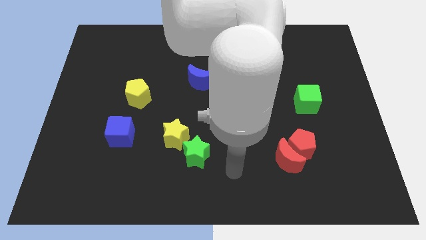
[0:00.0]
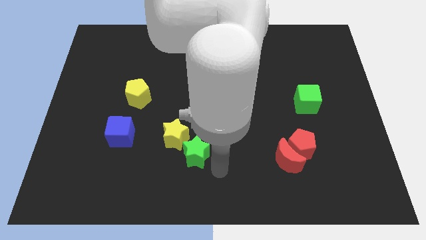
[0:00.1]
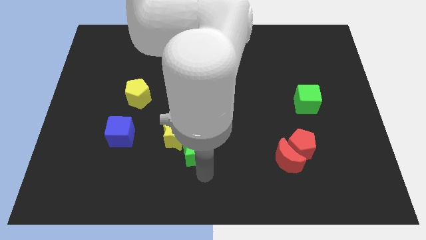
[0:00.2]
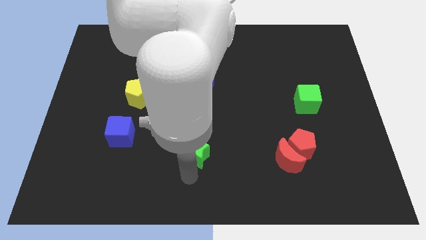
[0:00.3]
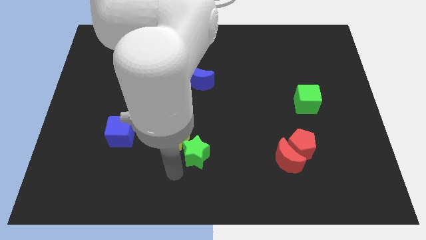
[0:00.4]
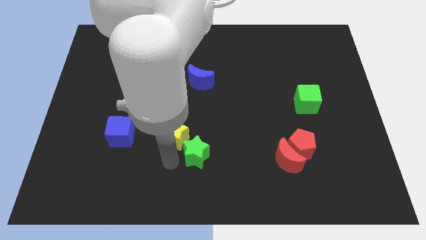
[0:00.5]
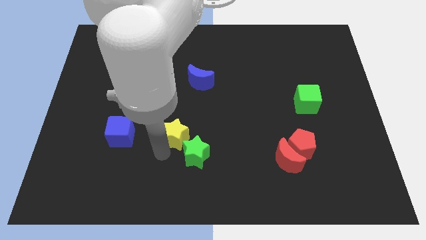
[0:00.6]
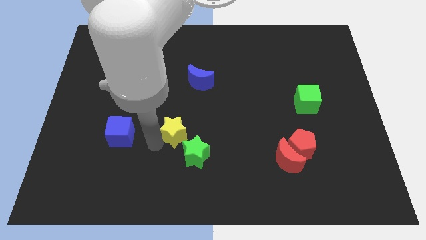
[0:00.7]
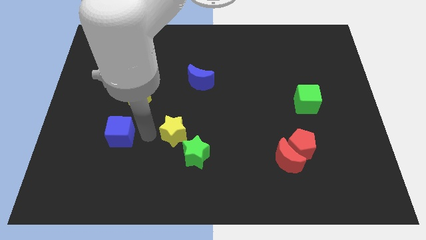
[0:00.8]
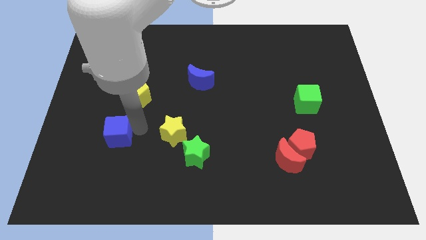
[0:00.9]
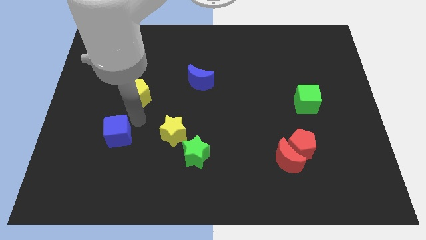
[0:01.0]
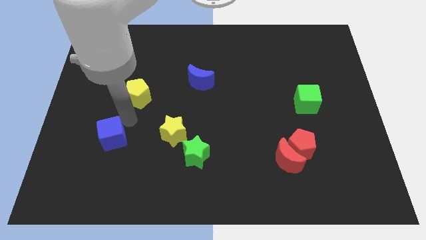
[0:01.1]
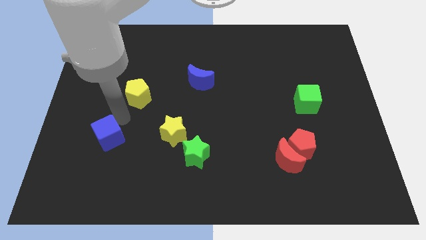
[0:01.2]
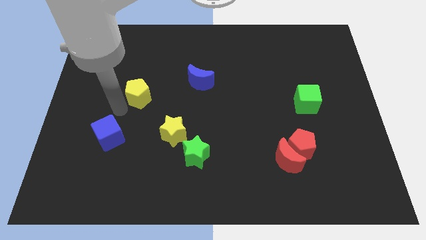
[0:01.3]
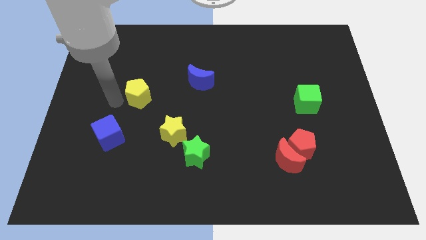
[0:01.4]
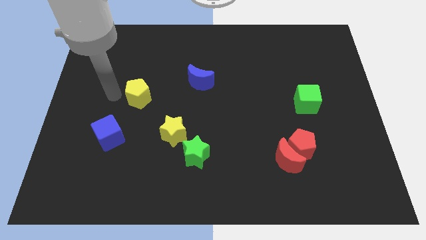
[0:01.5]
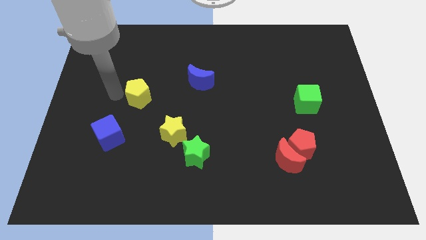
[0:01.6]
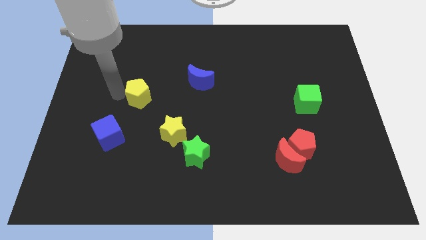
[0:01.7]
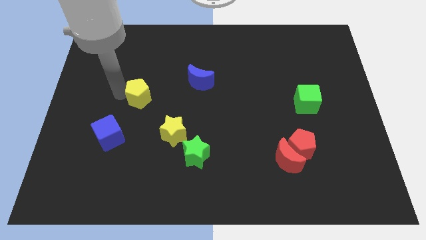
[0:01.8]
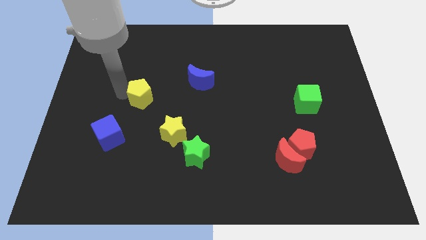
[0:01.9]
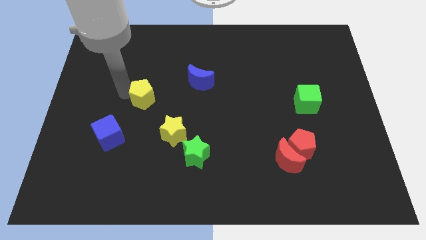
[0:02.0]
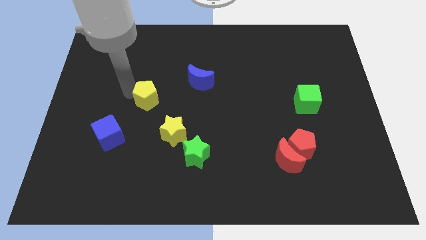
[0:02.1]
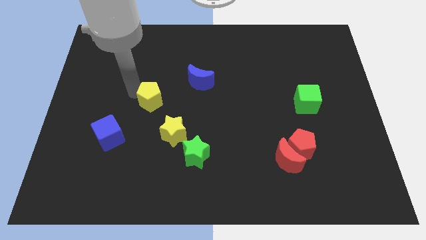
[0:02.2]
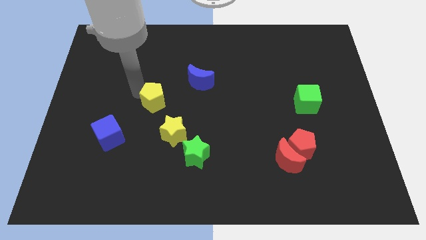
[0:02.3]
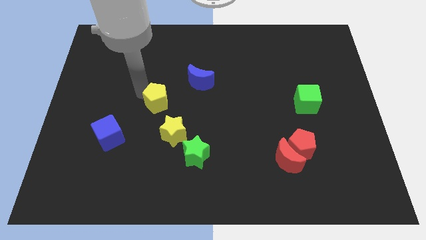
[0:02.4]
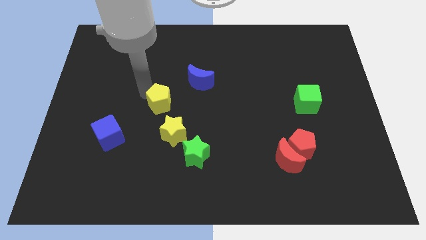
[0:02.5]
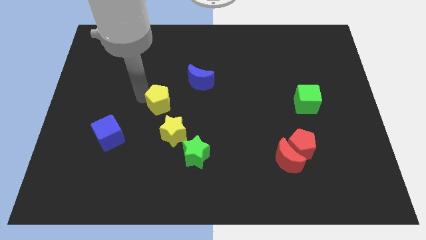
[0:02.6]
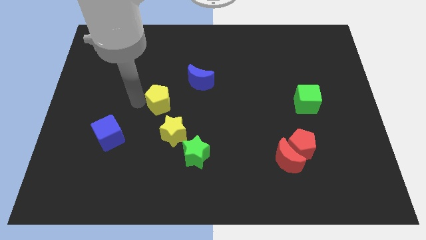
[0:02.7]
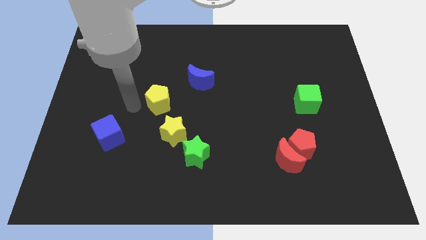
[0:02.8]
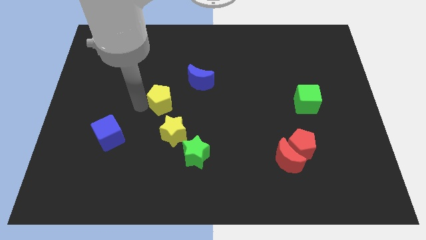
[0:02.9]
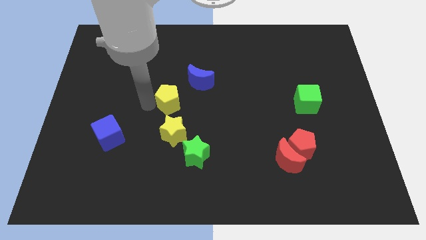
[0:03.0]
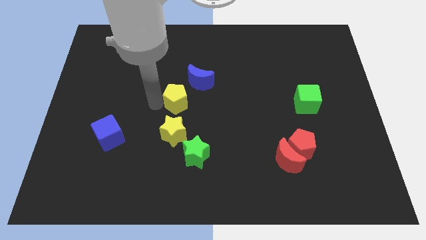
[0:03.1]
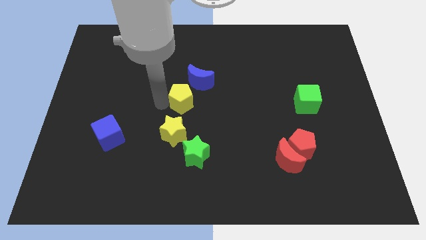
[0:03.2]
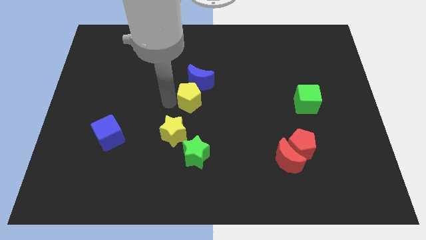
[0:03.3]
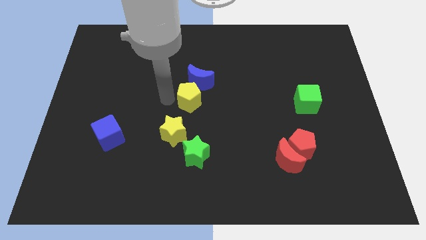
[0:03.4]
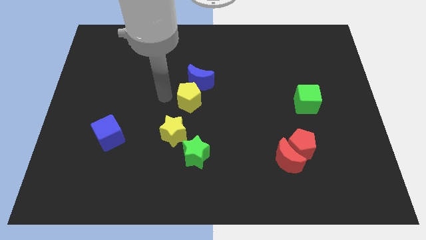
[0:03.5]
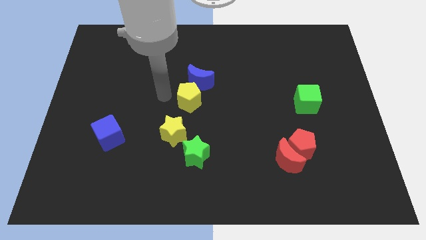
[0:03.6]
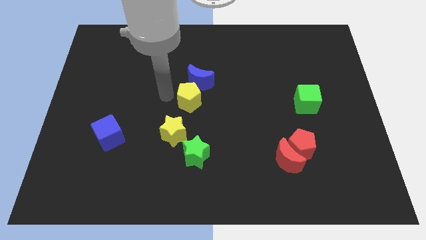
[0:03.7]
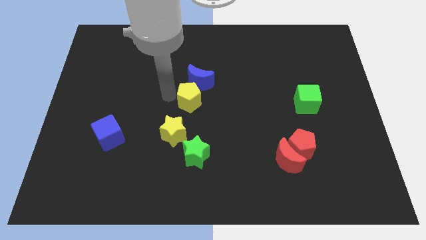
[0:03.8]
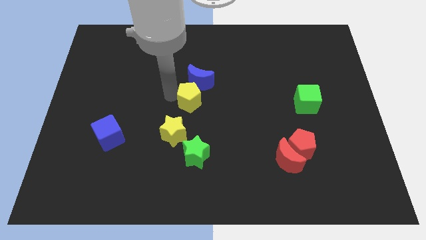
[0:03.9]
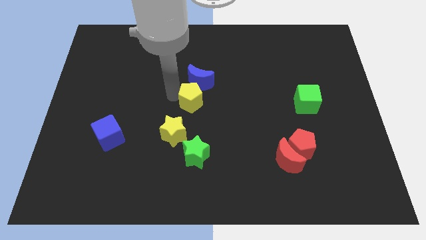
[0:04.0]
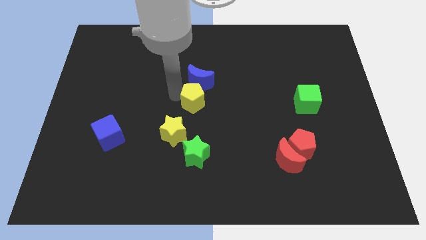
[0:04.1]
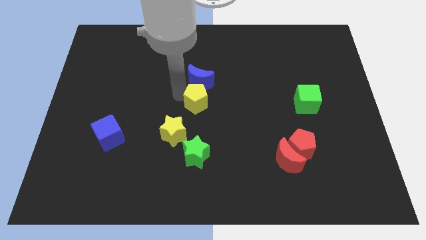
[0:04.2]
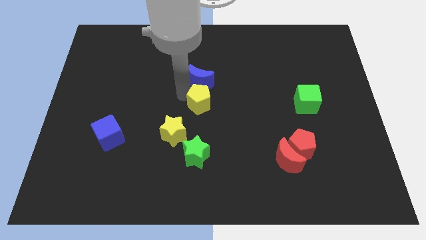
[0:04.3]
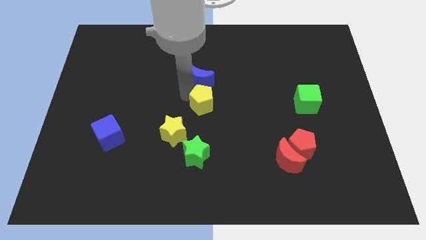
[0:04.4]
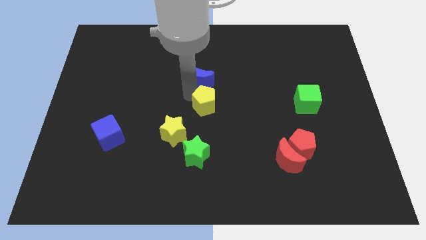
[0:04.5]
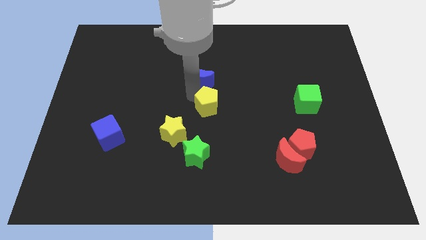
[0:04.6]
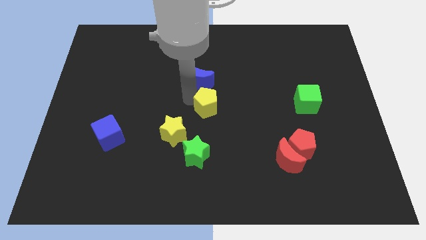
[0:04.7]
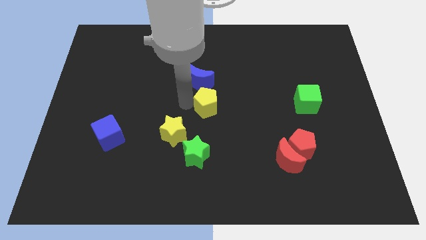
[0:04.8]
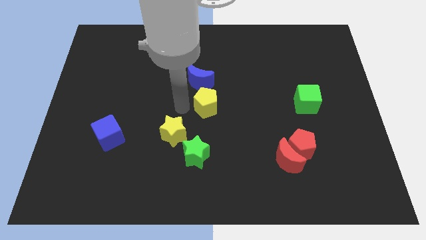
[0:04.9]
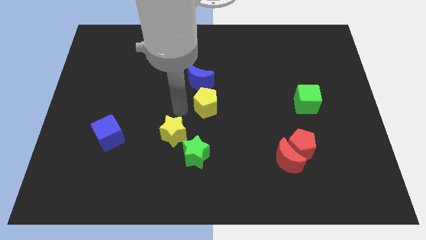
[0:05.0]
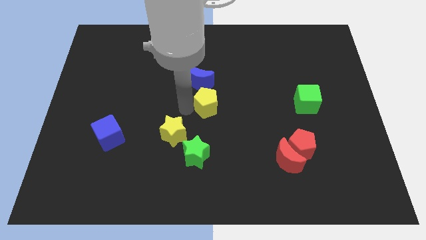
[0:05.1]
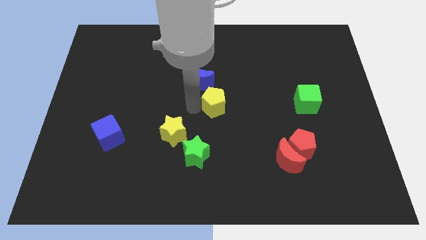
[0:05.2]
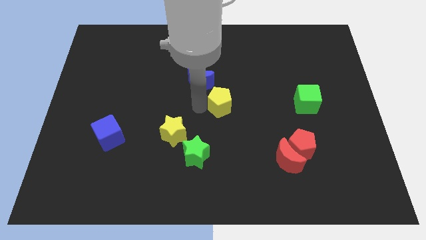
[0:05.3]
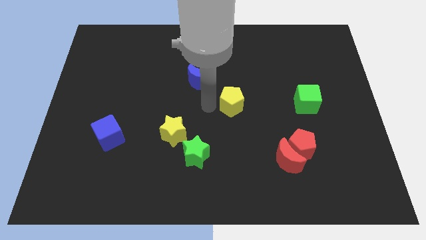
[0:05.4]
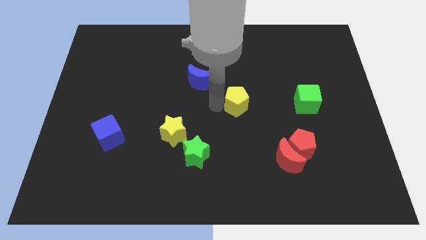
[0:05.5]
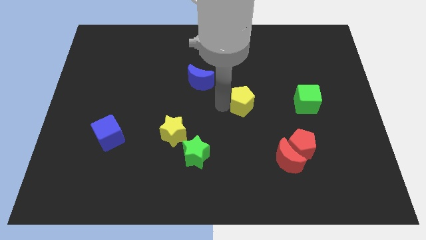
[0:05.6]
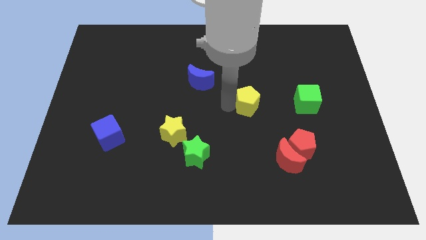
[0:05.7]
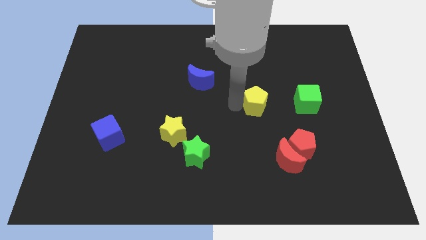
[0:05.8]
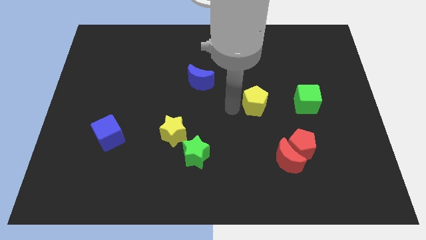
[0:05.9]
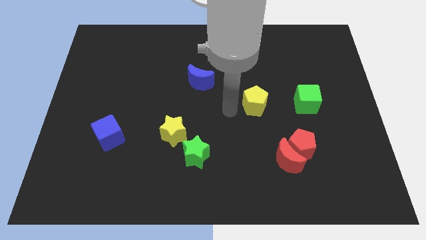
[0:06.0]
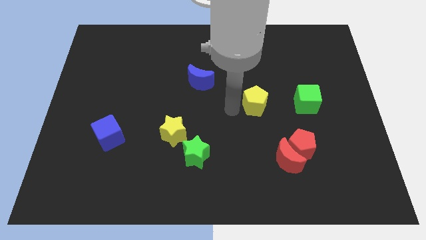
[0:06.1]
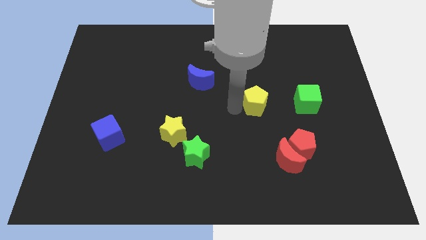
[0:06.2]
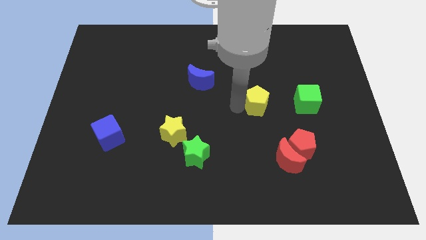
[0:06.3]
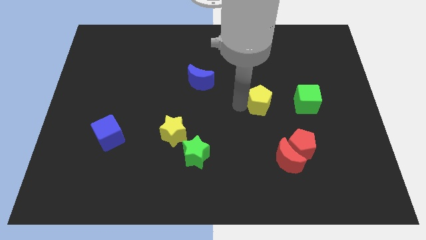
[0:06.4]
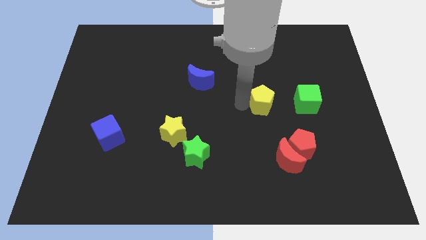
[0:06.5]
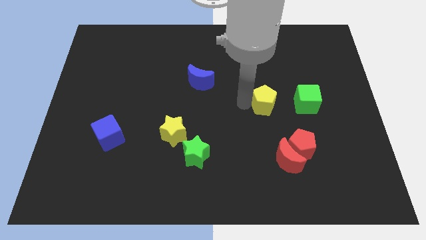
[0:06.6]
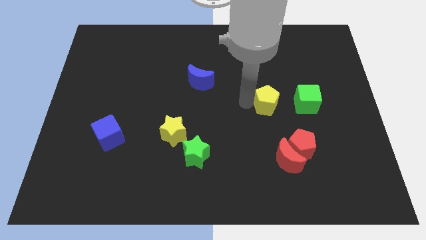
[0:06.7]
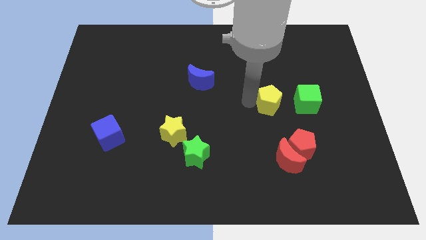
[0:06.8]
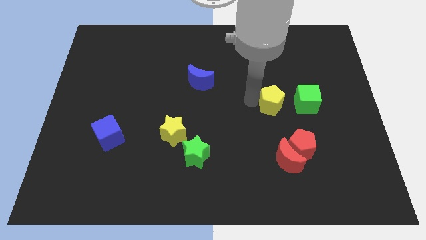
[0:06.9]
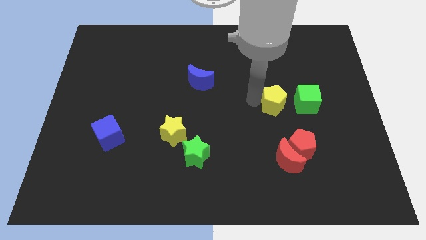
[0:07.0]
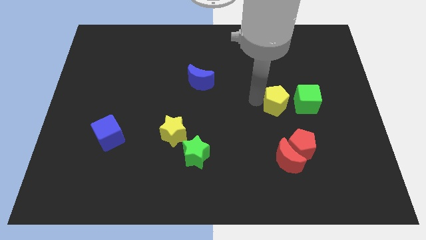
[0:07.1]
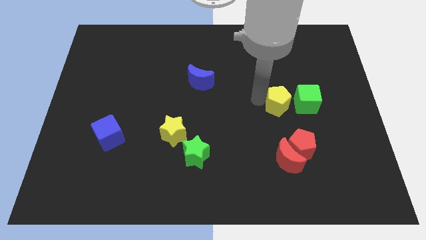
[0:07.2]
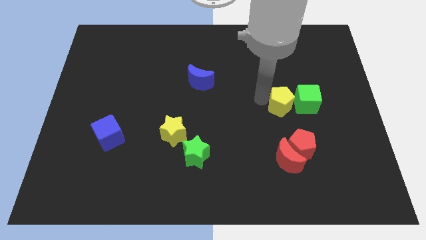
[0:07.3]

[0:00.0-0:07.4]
push the yellow pentagon to the green cube
